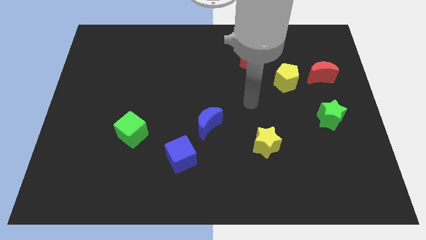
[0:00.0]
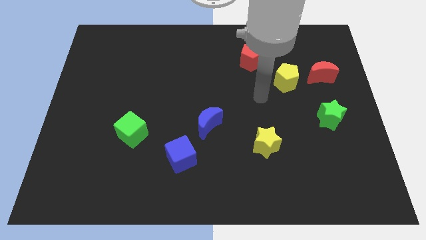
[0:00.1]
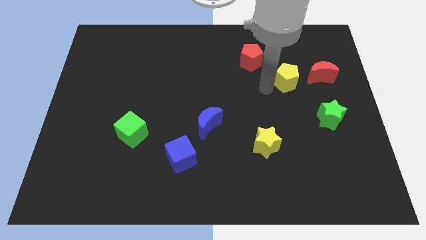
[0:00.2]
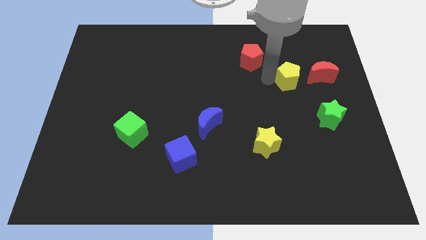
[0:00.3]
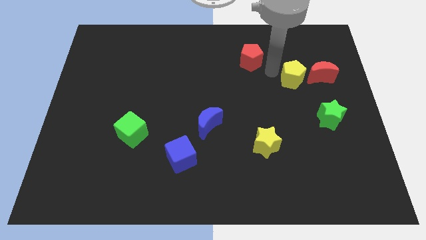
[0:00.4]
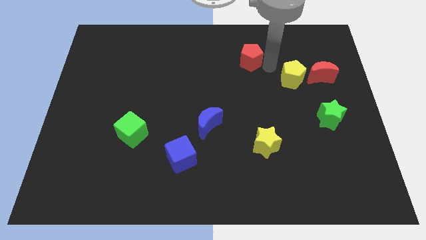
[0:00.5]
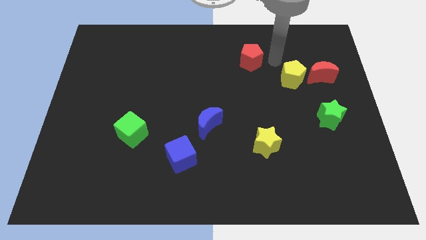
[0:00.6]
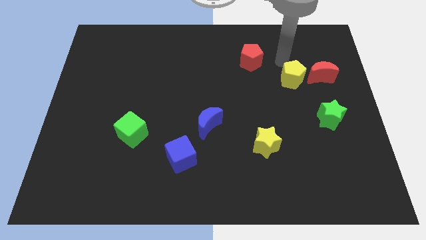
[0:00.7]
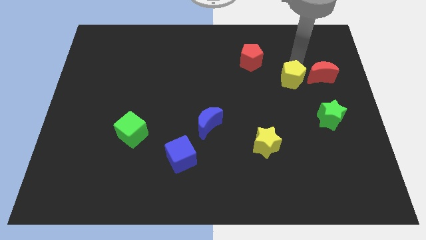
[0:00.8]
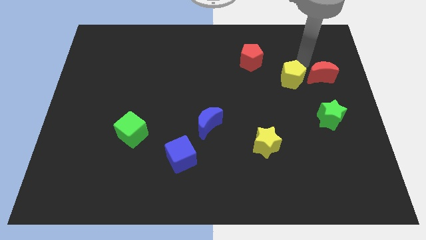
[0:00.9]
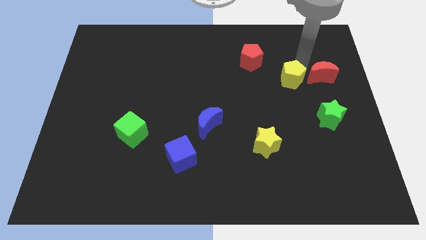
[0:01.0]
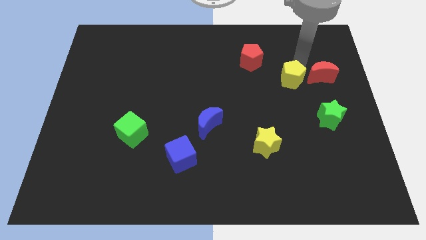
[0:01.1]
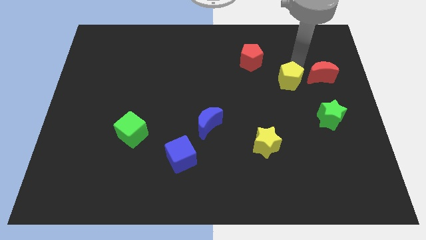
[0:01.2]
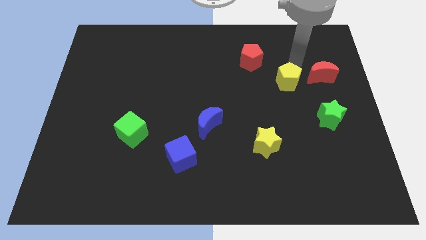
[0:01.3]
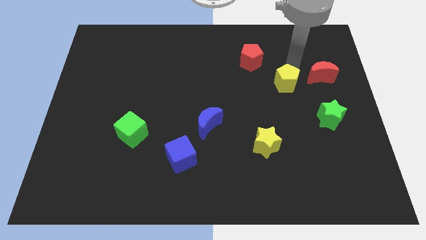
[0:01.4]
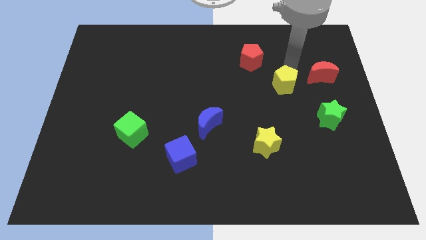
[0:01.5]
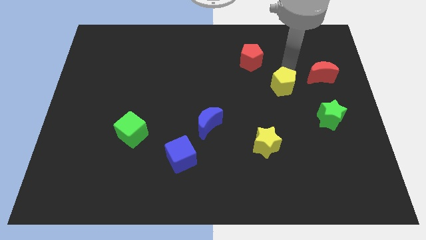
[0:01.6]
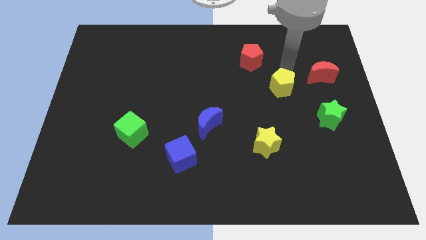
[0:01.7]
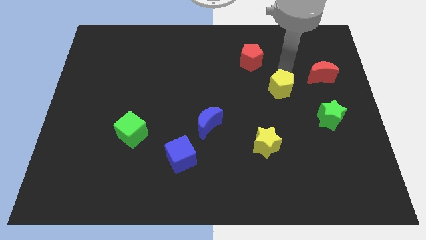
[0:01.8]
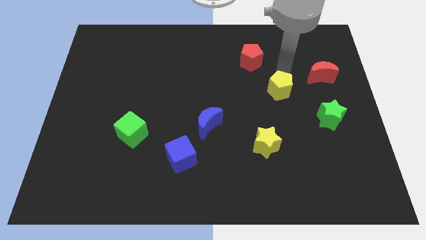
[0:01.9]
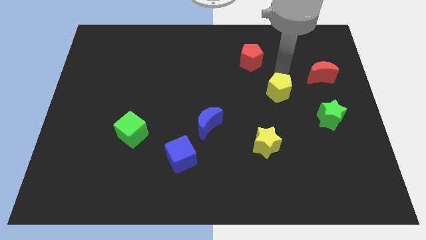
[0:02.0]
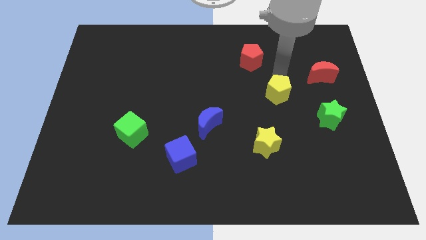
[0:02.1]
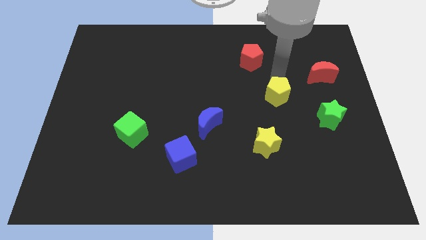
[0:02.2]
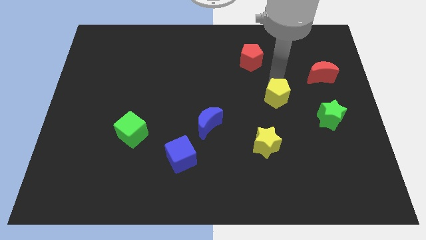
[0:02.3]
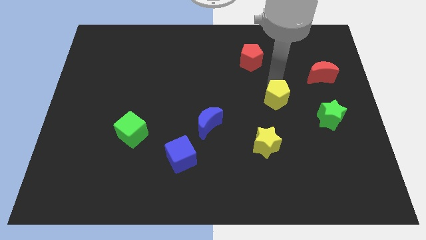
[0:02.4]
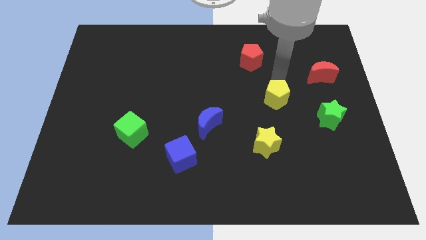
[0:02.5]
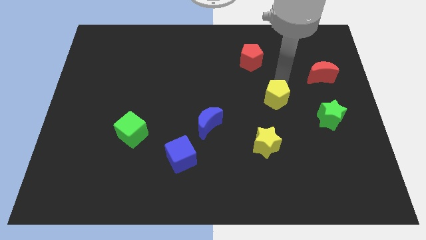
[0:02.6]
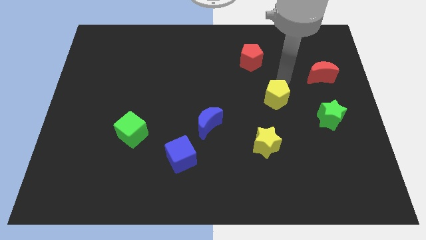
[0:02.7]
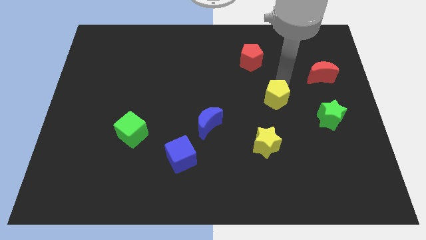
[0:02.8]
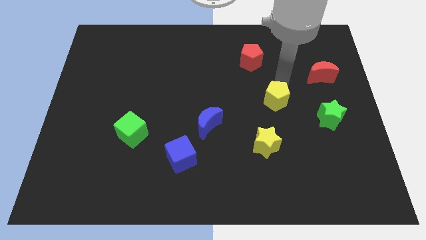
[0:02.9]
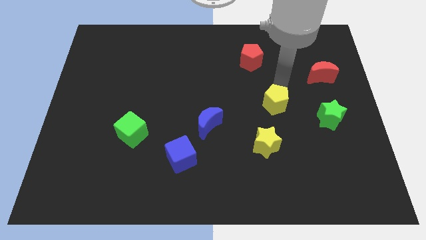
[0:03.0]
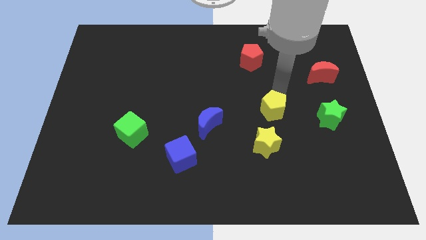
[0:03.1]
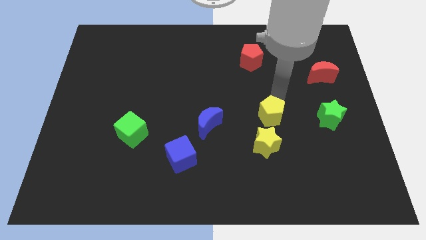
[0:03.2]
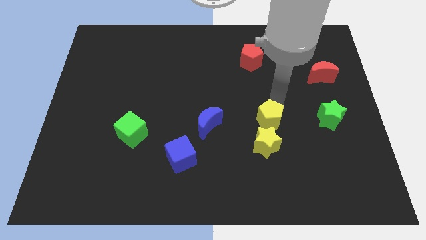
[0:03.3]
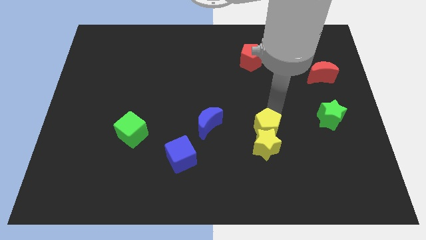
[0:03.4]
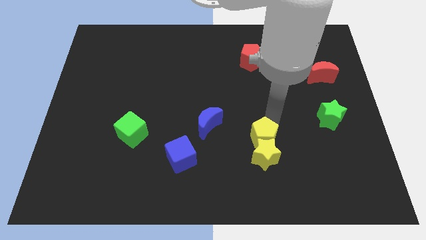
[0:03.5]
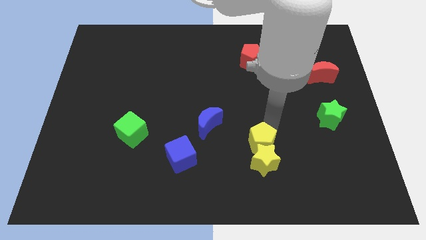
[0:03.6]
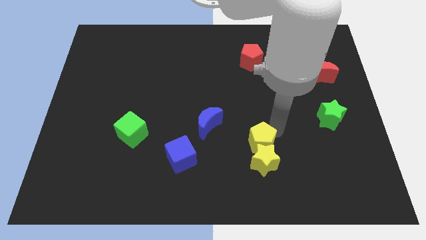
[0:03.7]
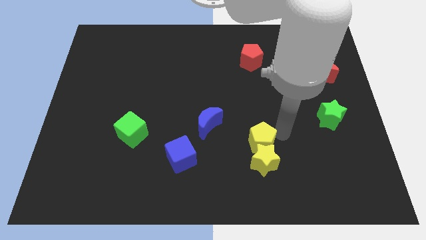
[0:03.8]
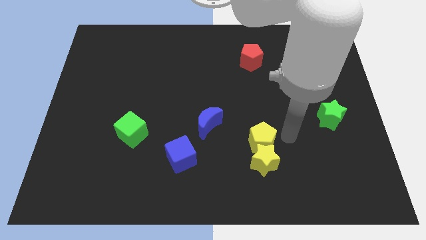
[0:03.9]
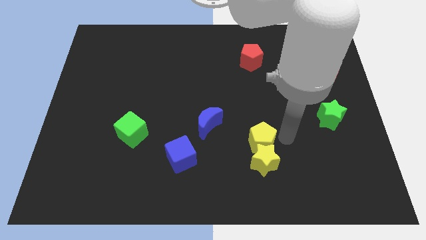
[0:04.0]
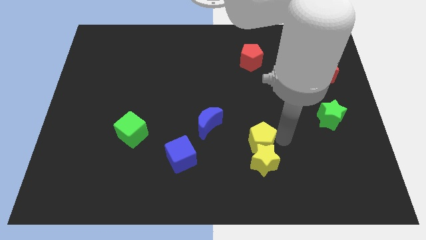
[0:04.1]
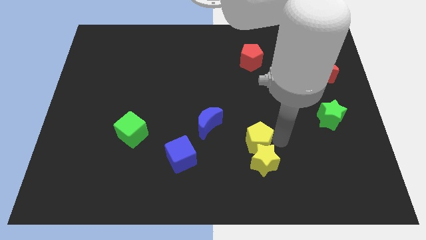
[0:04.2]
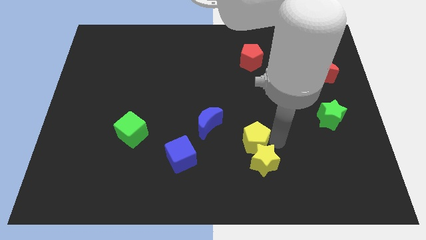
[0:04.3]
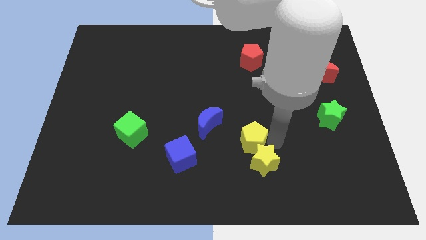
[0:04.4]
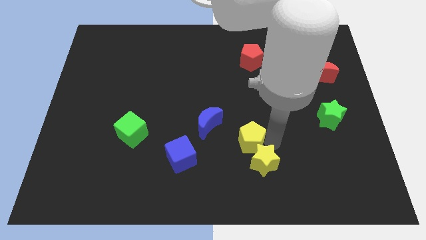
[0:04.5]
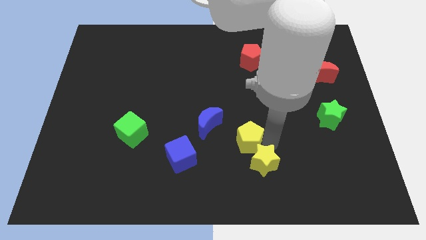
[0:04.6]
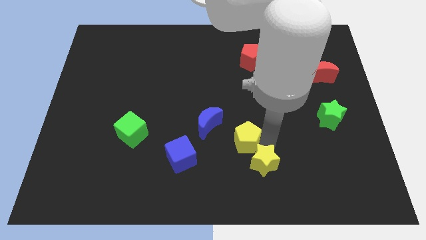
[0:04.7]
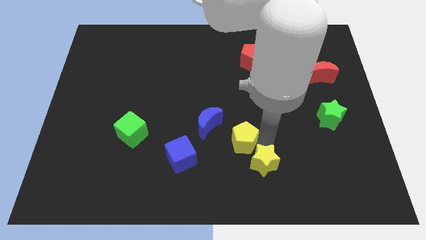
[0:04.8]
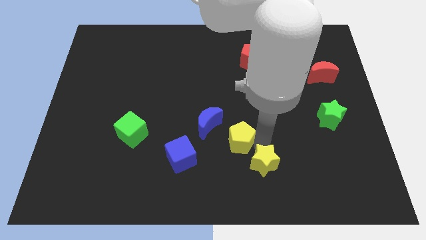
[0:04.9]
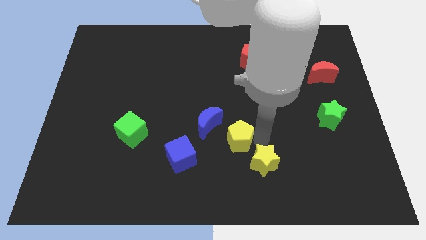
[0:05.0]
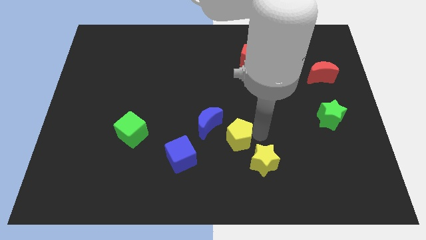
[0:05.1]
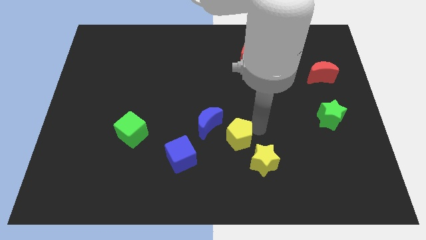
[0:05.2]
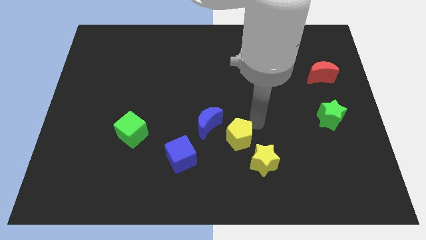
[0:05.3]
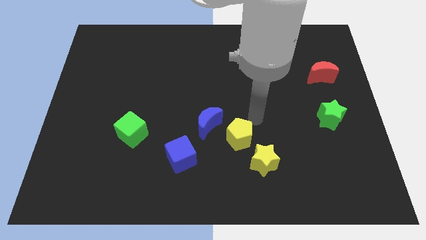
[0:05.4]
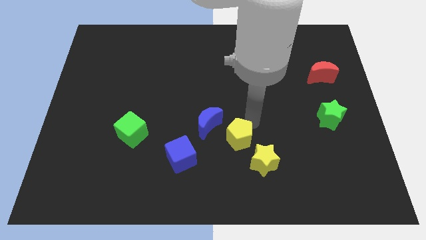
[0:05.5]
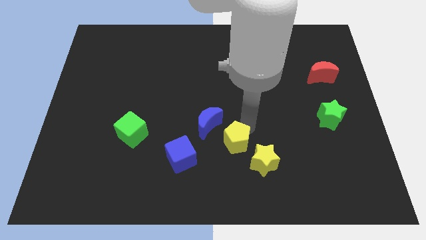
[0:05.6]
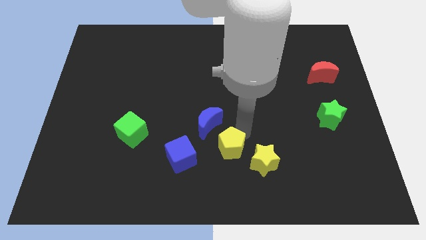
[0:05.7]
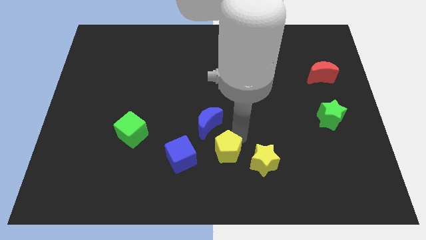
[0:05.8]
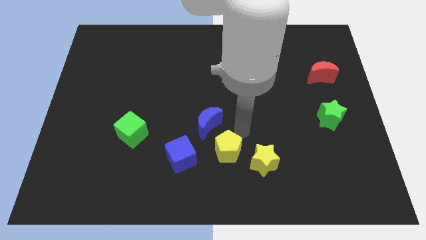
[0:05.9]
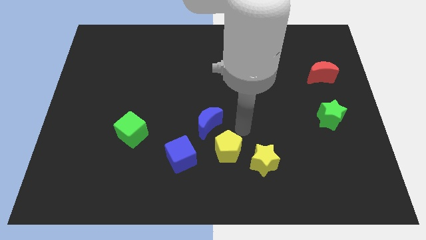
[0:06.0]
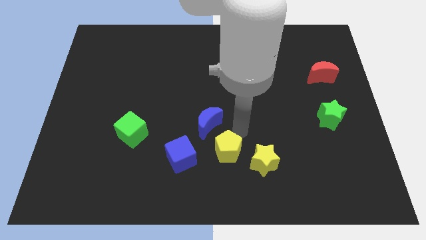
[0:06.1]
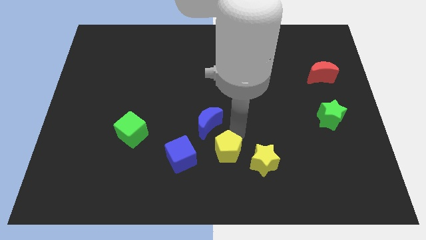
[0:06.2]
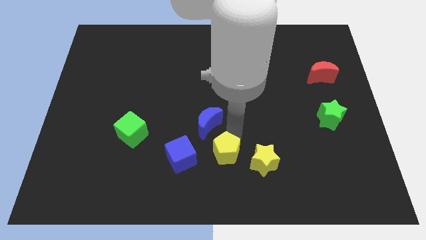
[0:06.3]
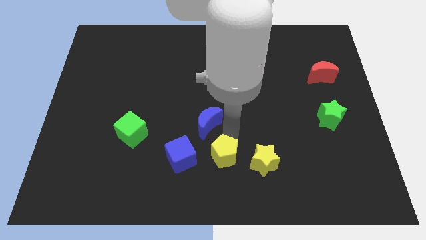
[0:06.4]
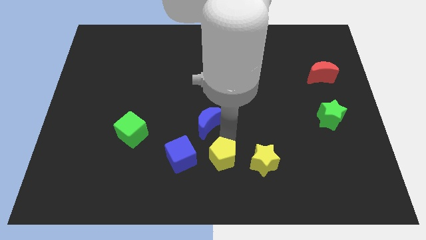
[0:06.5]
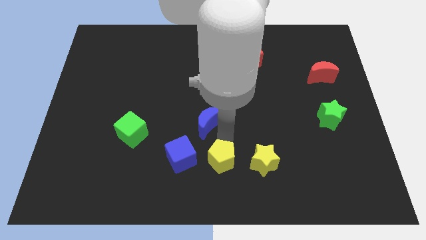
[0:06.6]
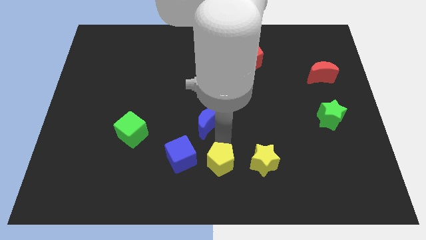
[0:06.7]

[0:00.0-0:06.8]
put the yellow pentagon to the bottom right of the blue cube

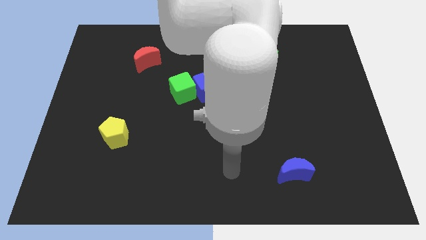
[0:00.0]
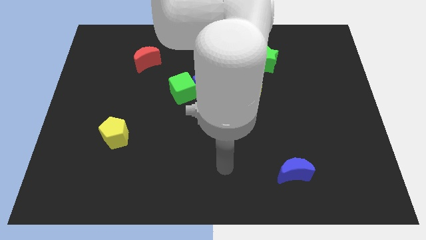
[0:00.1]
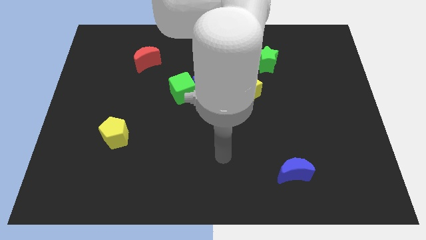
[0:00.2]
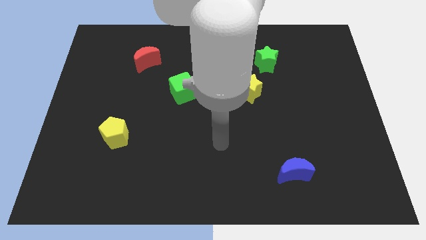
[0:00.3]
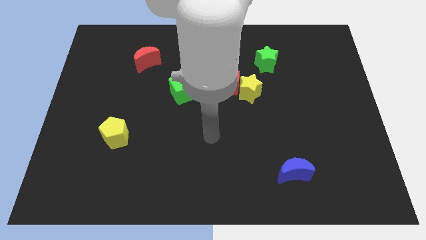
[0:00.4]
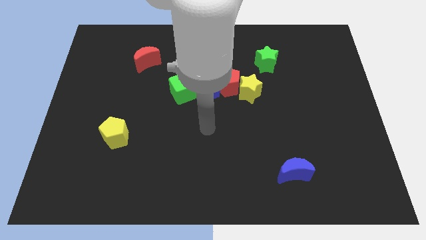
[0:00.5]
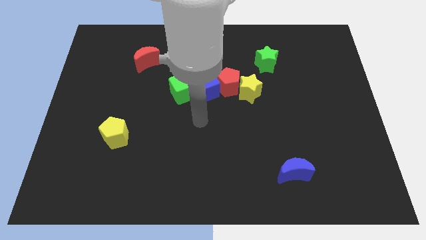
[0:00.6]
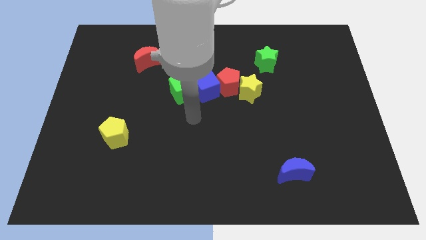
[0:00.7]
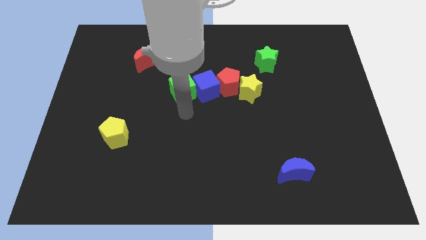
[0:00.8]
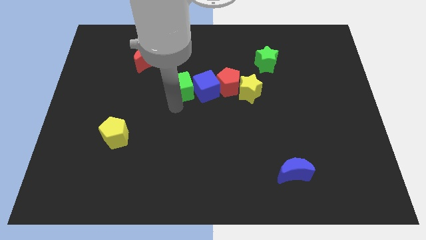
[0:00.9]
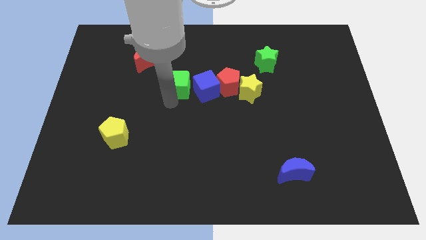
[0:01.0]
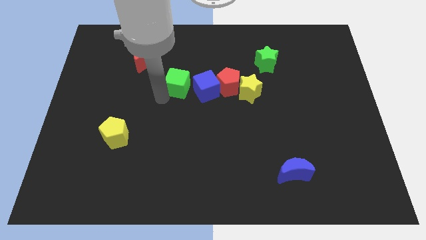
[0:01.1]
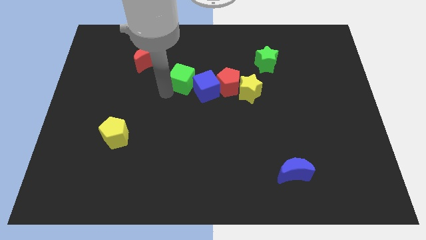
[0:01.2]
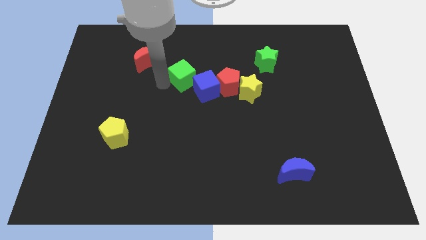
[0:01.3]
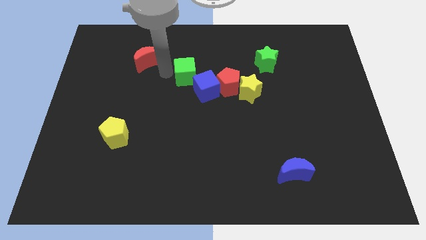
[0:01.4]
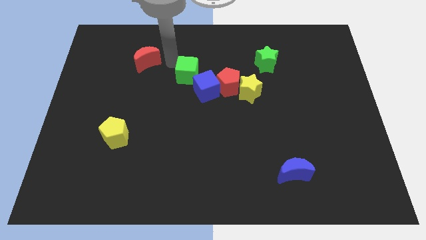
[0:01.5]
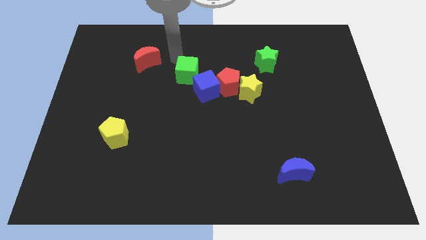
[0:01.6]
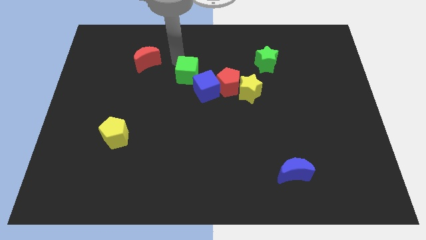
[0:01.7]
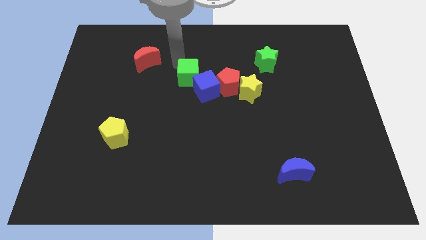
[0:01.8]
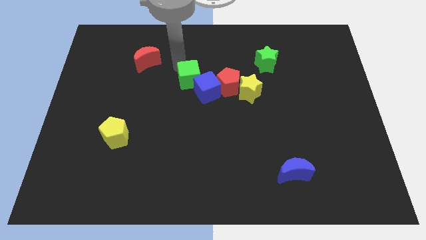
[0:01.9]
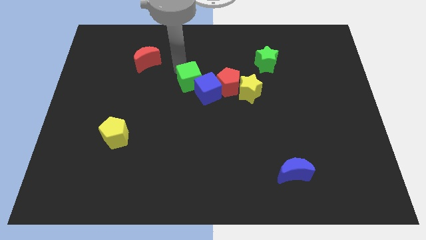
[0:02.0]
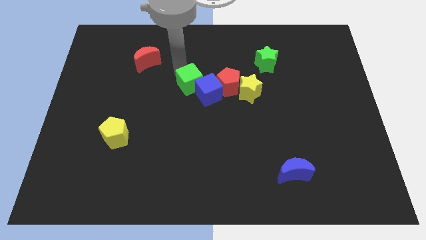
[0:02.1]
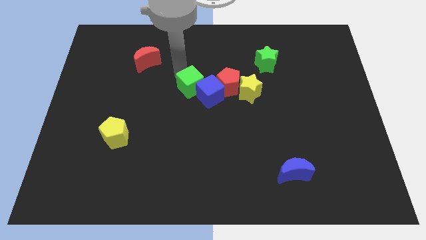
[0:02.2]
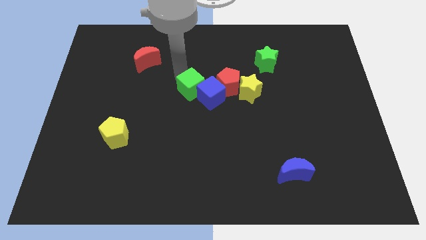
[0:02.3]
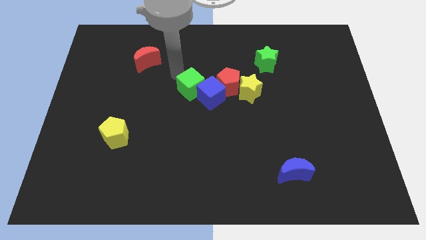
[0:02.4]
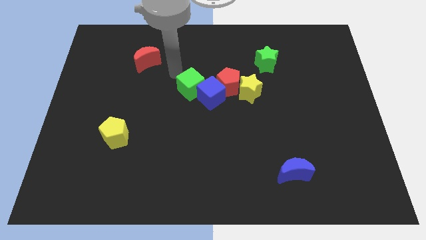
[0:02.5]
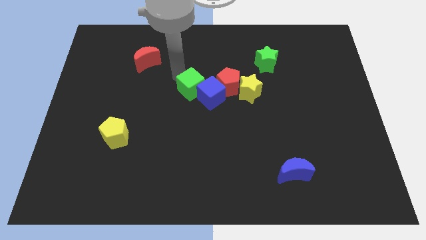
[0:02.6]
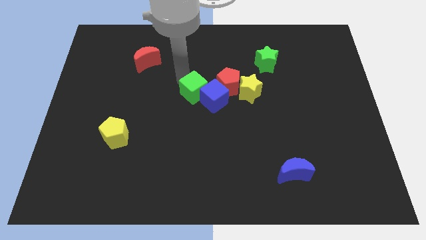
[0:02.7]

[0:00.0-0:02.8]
move the green cube to the bottom left side of the red pentagon
